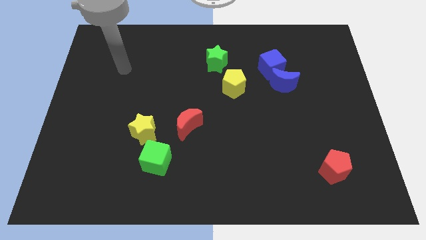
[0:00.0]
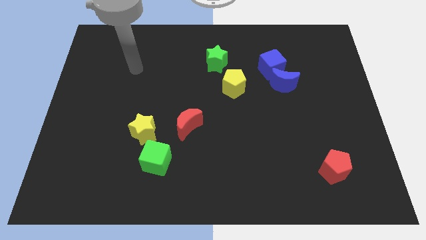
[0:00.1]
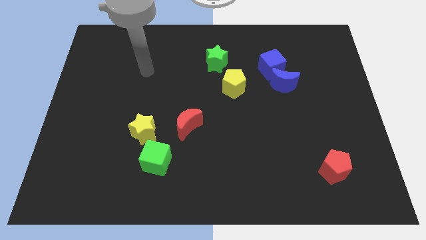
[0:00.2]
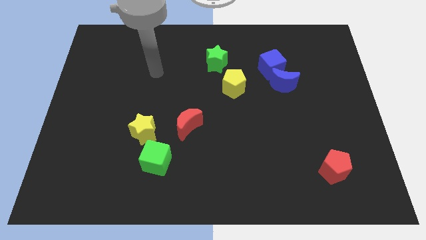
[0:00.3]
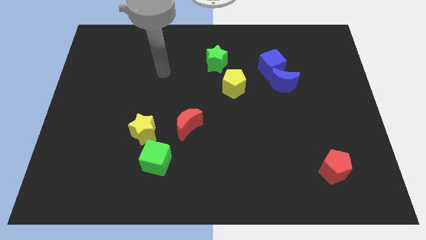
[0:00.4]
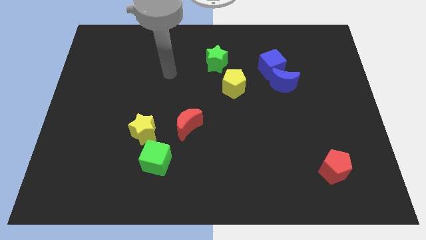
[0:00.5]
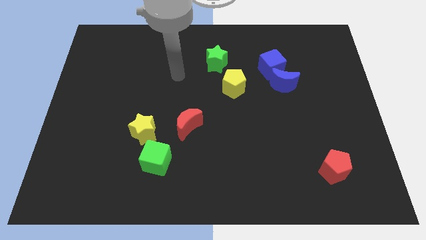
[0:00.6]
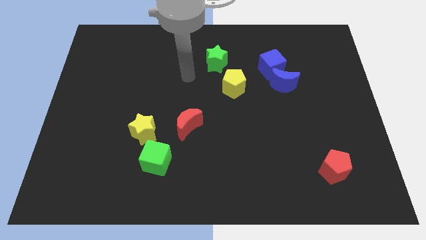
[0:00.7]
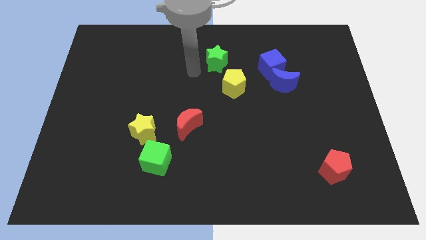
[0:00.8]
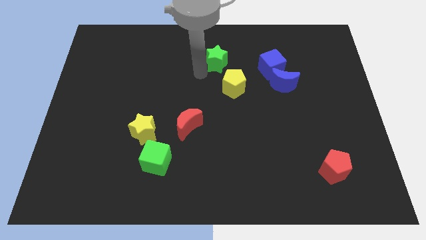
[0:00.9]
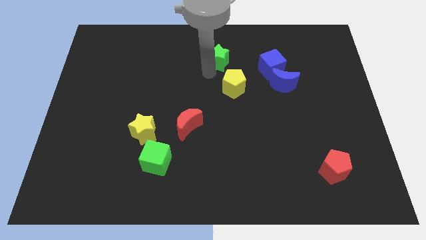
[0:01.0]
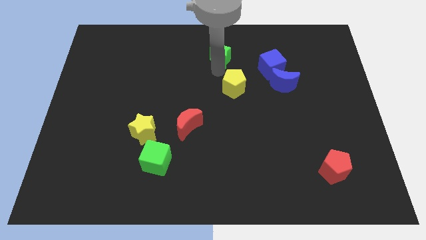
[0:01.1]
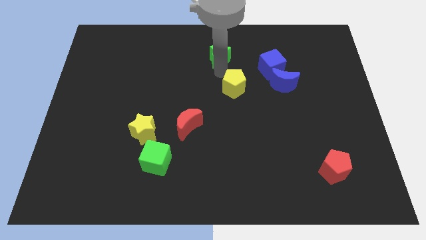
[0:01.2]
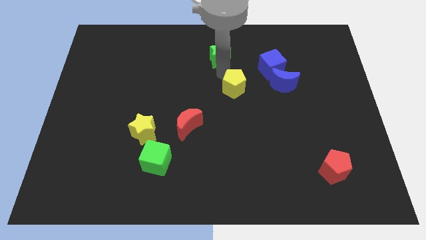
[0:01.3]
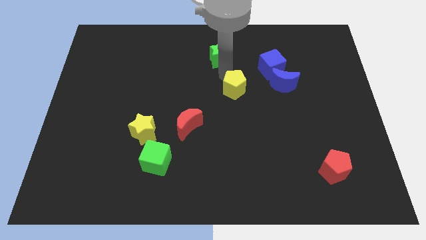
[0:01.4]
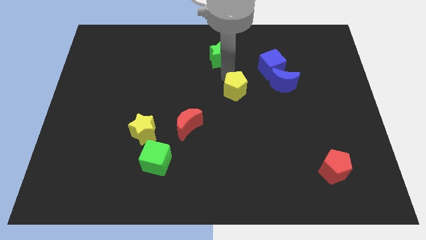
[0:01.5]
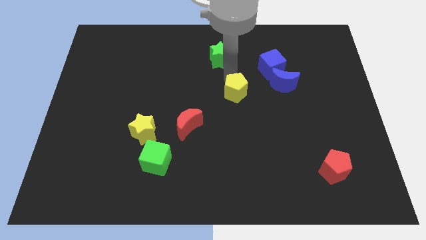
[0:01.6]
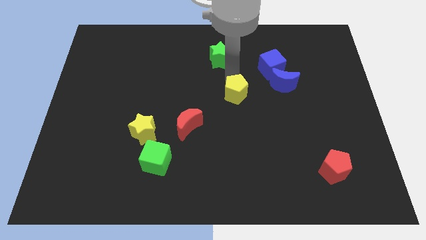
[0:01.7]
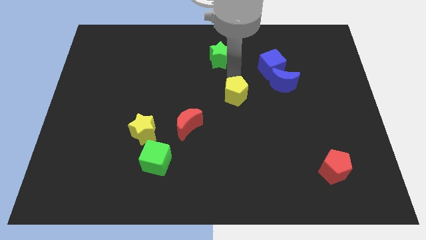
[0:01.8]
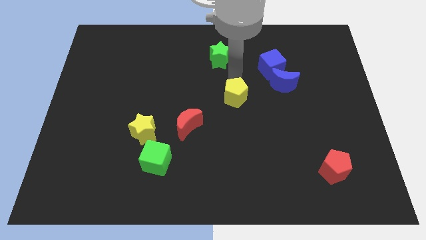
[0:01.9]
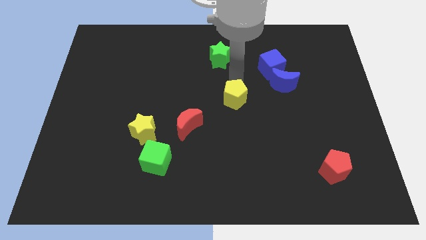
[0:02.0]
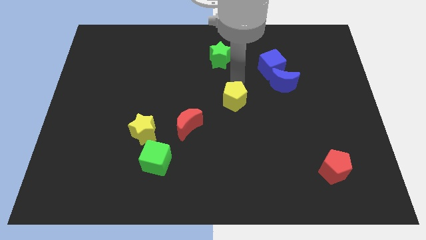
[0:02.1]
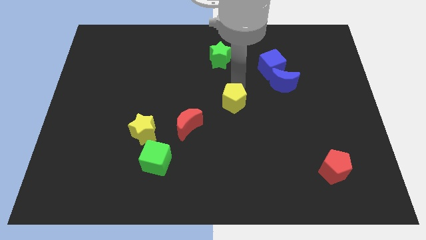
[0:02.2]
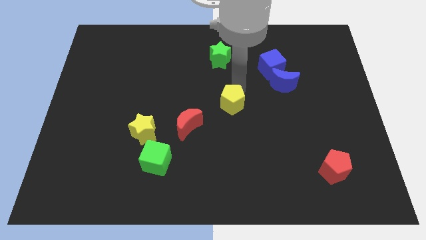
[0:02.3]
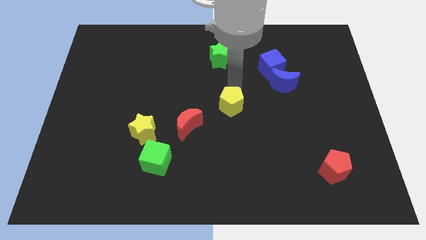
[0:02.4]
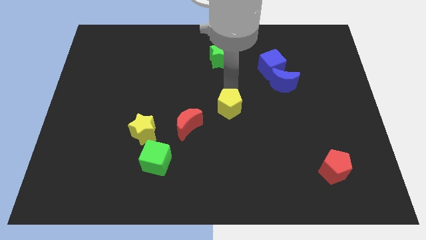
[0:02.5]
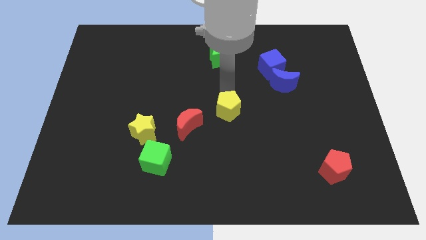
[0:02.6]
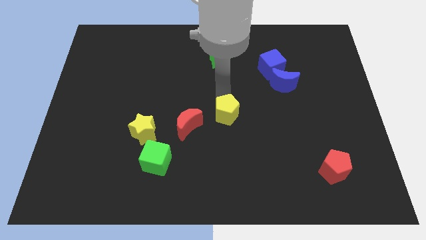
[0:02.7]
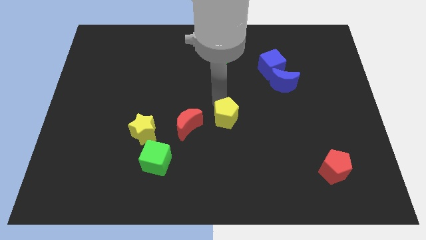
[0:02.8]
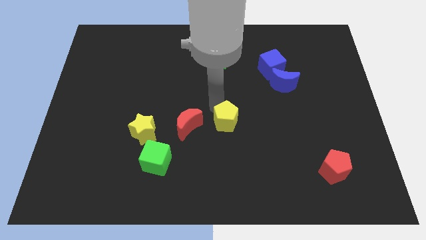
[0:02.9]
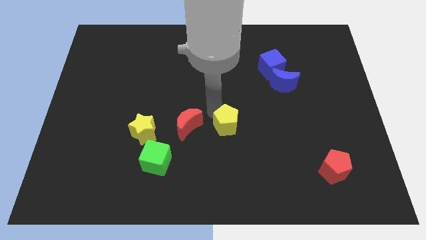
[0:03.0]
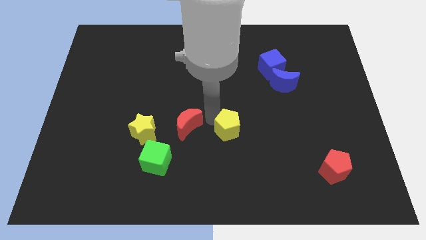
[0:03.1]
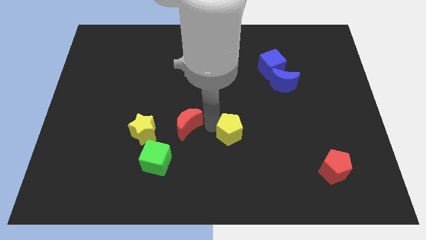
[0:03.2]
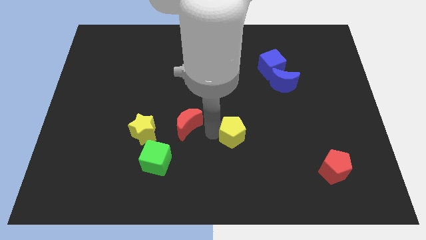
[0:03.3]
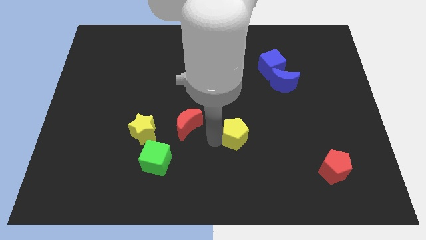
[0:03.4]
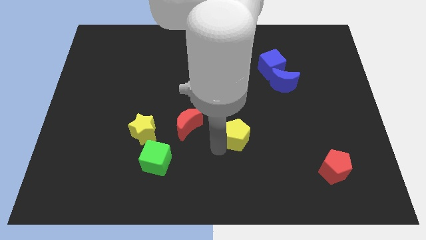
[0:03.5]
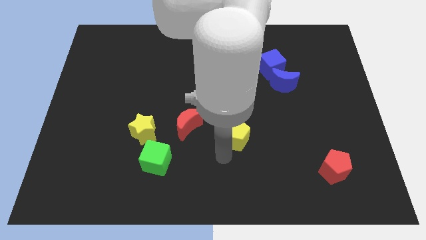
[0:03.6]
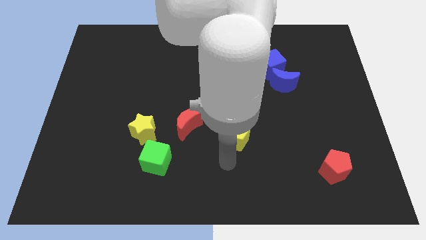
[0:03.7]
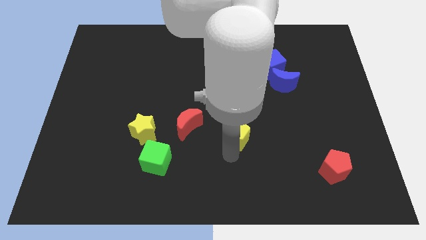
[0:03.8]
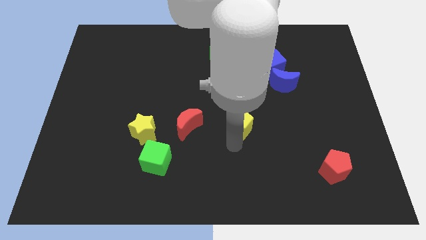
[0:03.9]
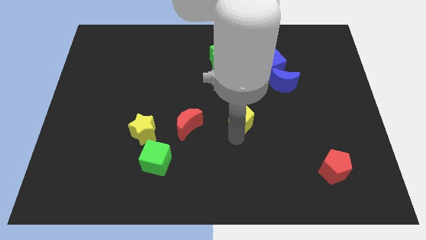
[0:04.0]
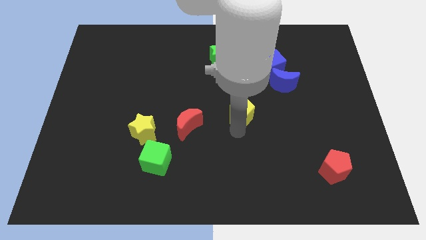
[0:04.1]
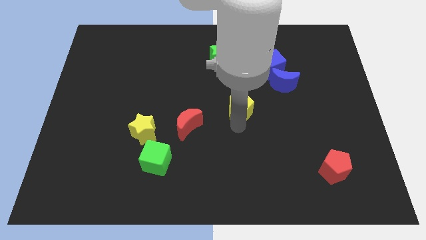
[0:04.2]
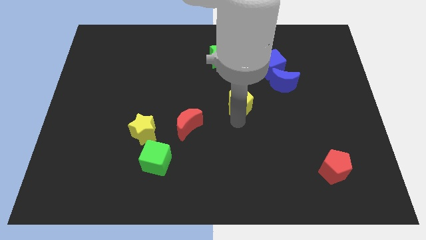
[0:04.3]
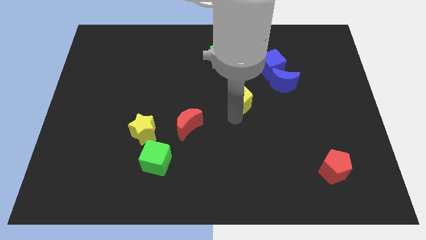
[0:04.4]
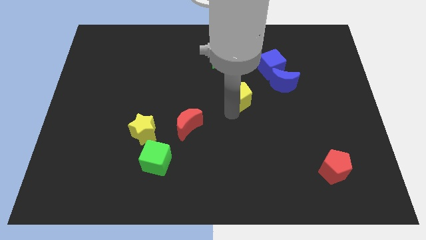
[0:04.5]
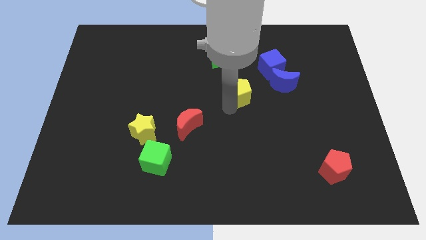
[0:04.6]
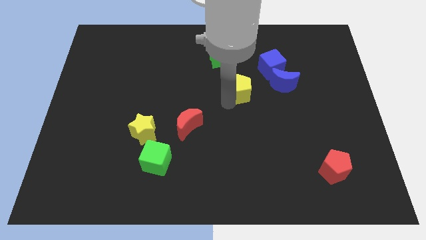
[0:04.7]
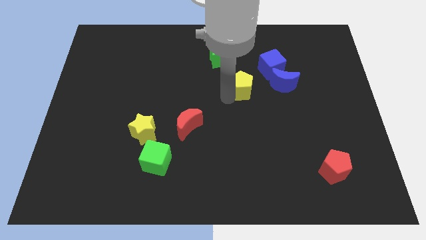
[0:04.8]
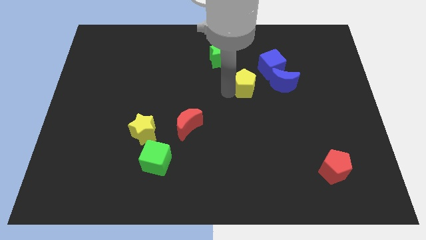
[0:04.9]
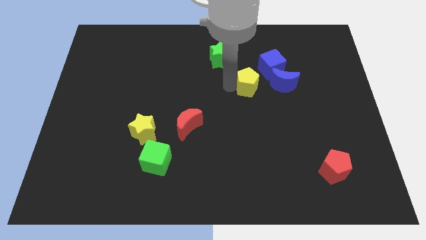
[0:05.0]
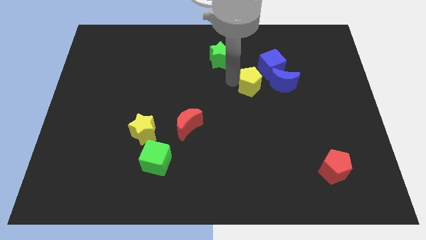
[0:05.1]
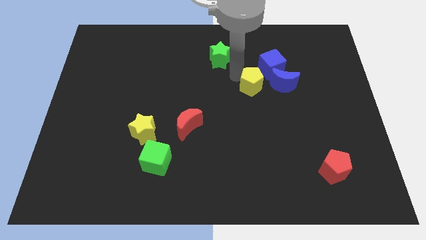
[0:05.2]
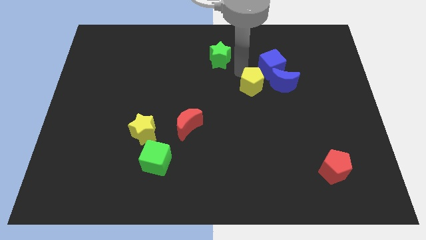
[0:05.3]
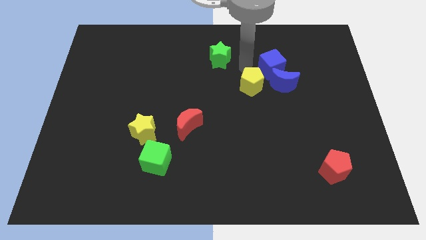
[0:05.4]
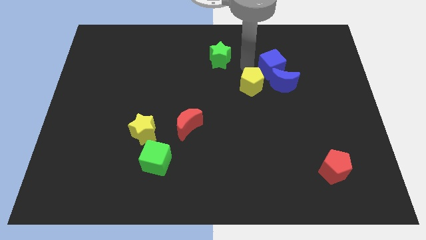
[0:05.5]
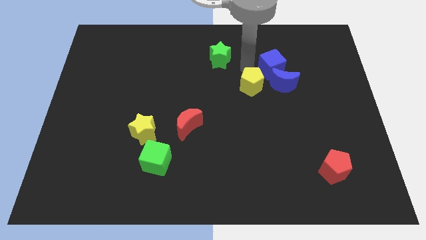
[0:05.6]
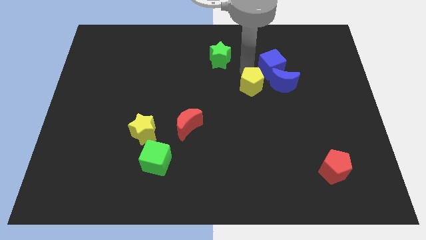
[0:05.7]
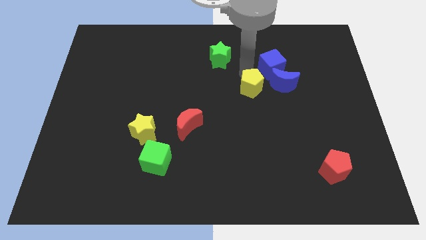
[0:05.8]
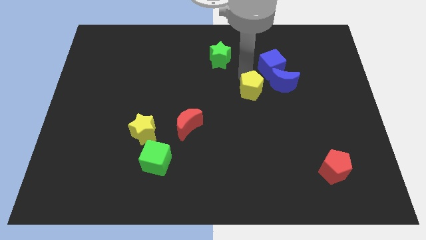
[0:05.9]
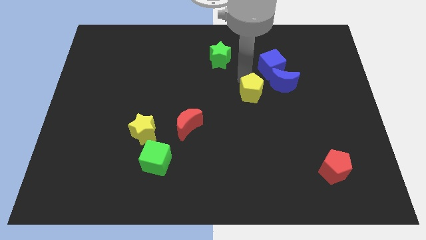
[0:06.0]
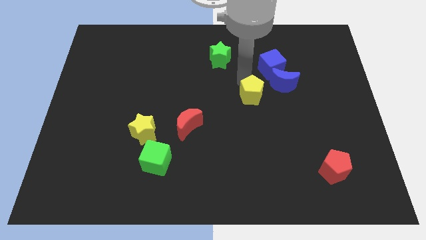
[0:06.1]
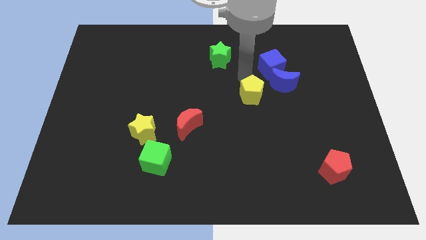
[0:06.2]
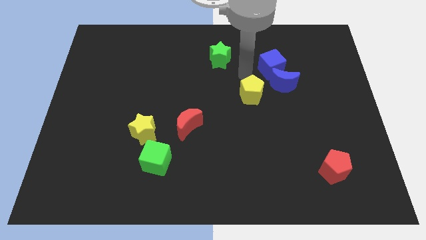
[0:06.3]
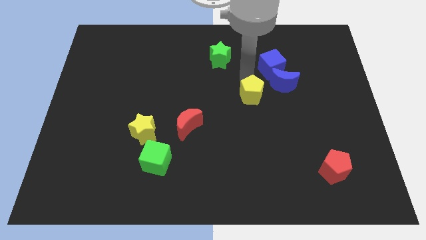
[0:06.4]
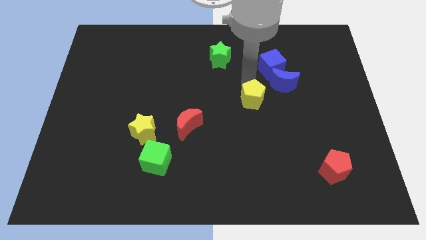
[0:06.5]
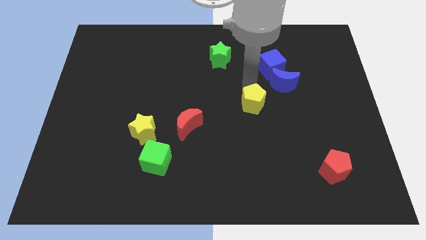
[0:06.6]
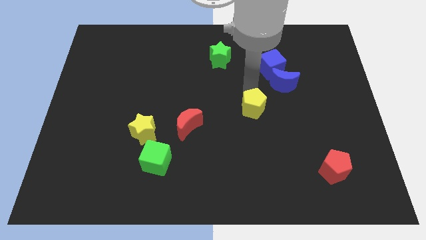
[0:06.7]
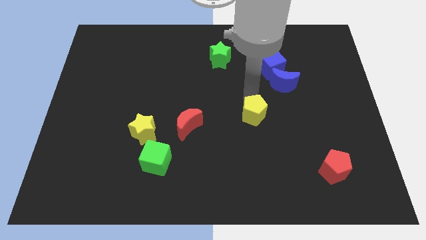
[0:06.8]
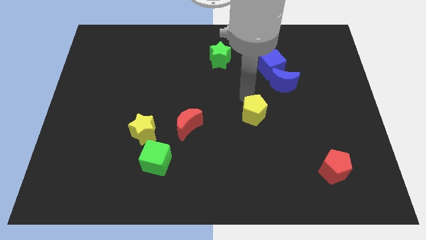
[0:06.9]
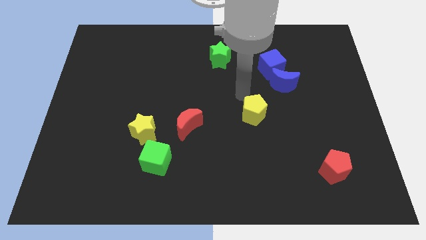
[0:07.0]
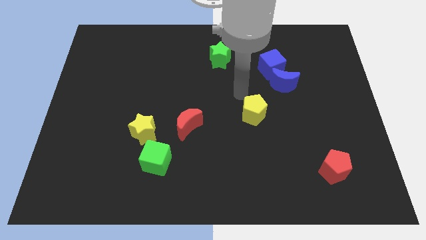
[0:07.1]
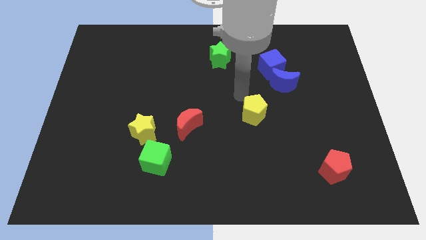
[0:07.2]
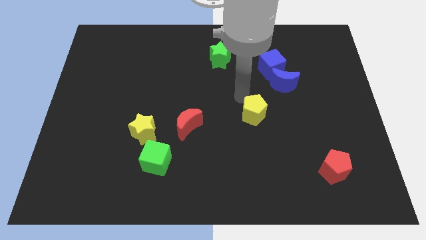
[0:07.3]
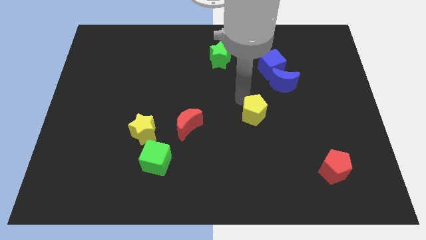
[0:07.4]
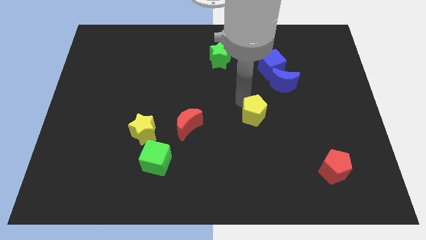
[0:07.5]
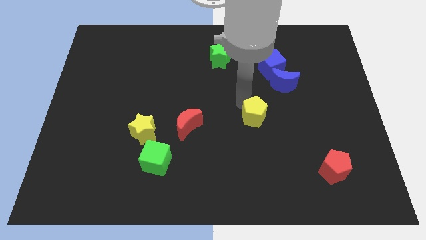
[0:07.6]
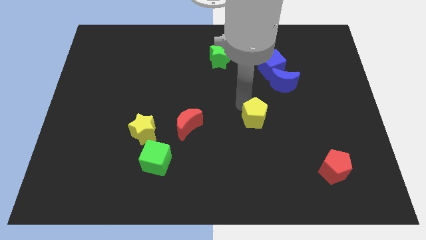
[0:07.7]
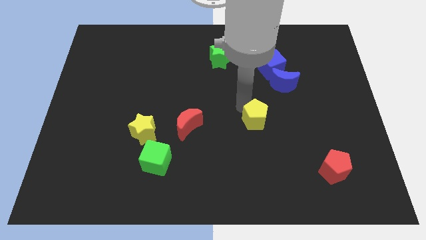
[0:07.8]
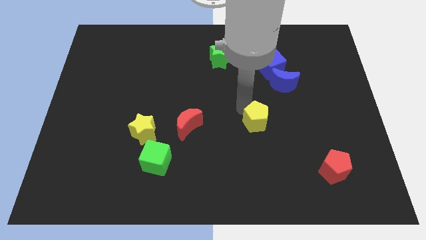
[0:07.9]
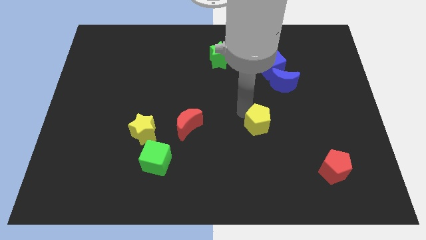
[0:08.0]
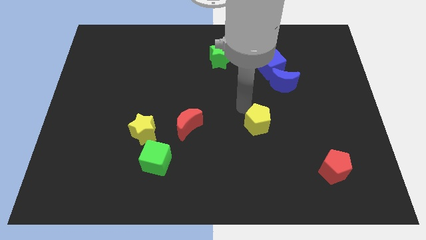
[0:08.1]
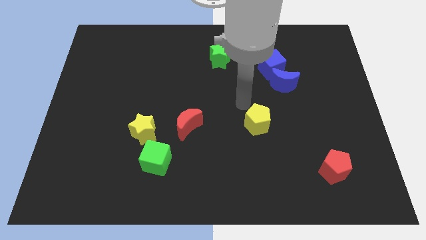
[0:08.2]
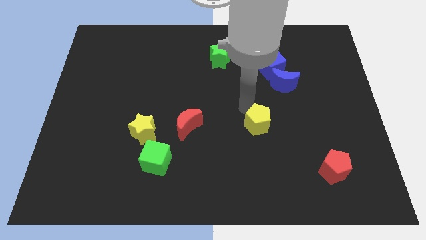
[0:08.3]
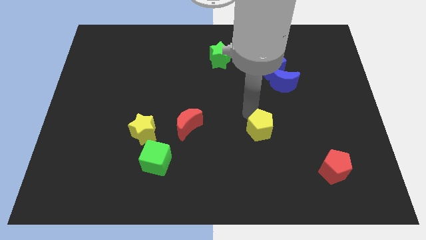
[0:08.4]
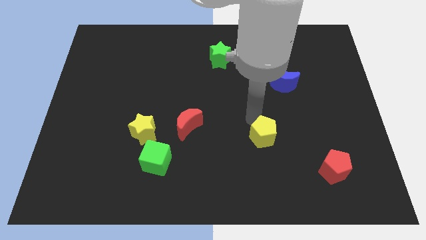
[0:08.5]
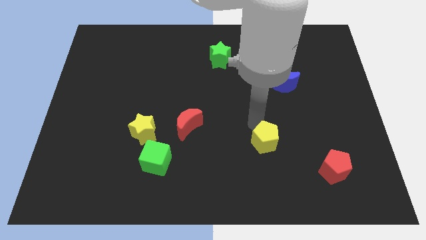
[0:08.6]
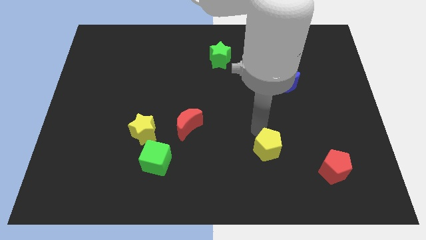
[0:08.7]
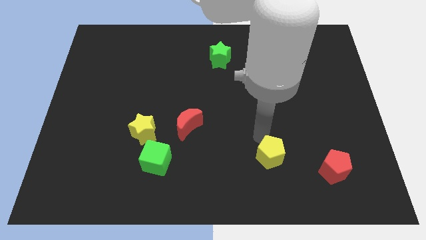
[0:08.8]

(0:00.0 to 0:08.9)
slide the yellow pentagon just left of the red pentagon
